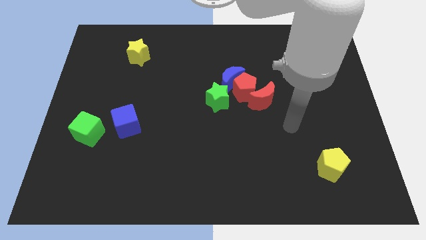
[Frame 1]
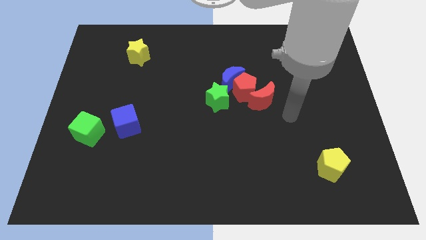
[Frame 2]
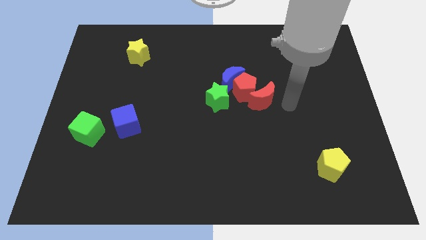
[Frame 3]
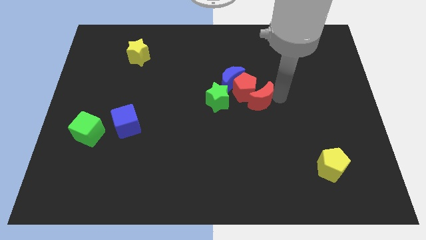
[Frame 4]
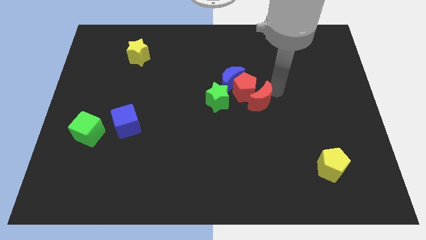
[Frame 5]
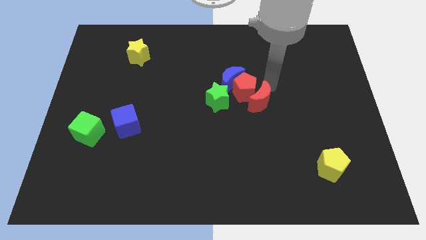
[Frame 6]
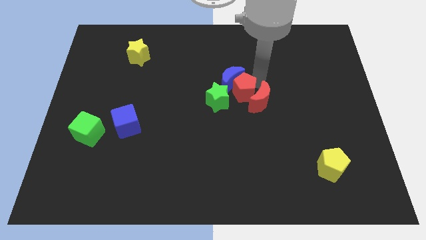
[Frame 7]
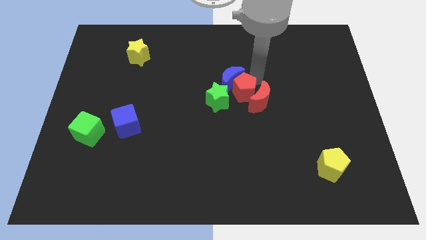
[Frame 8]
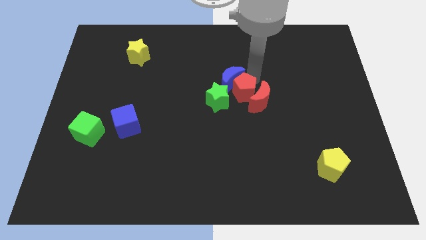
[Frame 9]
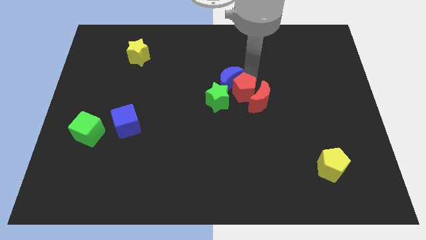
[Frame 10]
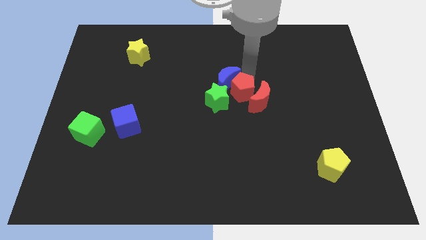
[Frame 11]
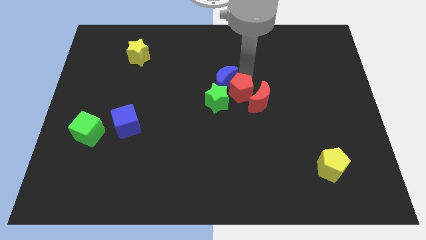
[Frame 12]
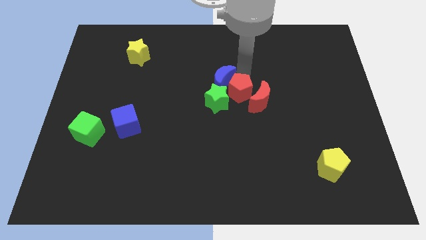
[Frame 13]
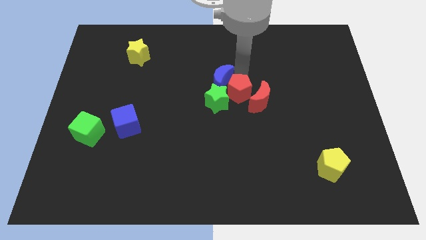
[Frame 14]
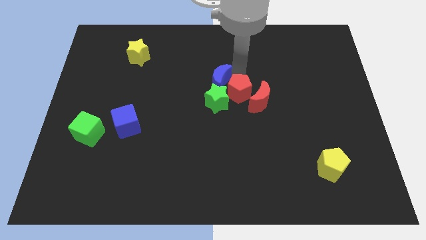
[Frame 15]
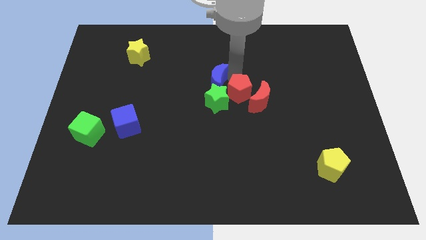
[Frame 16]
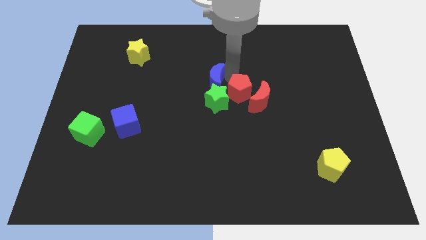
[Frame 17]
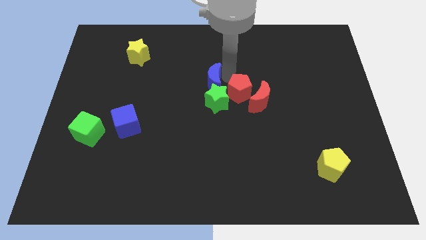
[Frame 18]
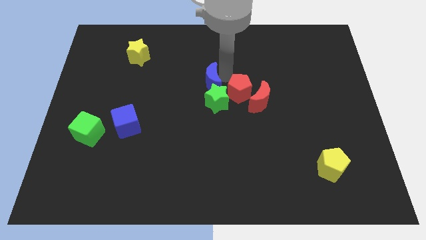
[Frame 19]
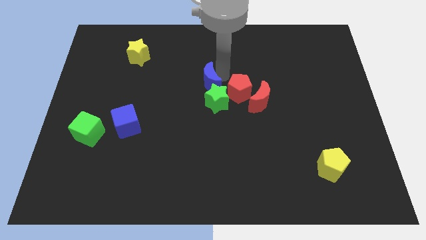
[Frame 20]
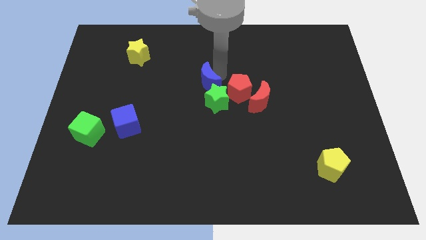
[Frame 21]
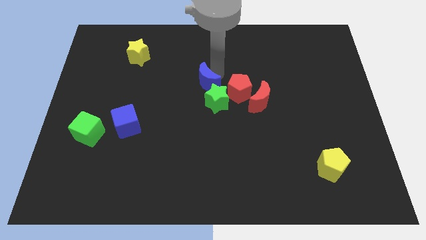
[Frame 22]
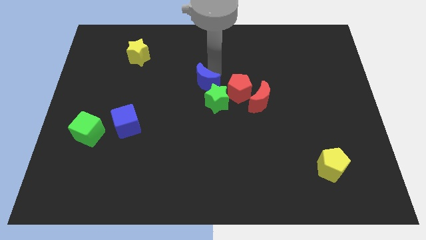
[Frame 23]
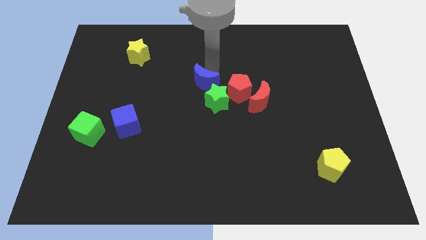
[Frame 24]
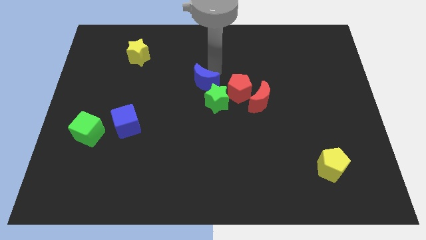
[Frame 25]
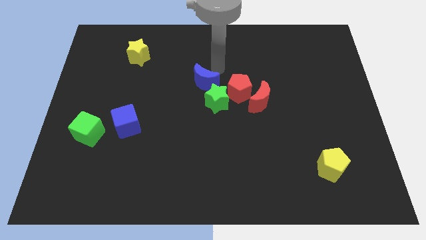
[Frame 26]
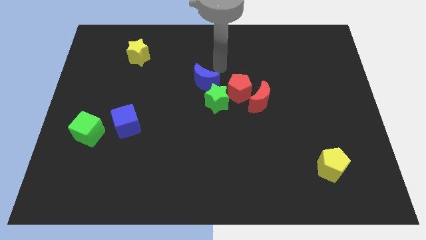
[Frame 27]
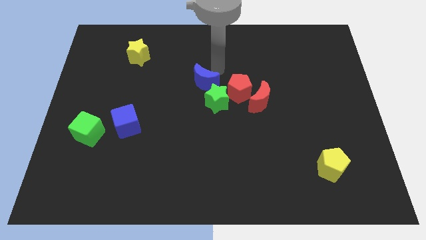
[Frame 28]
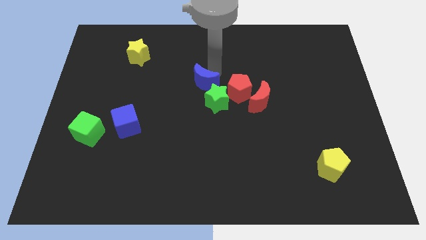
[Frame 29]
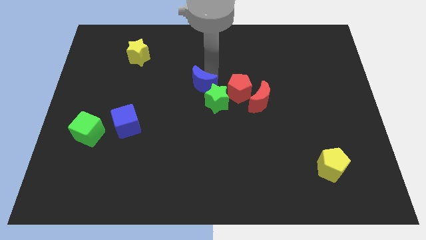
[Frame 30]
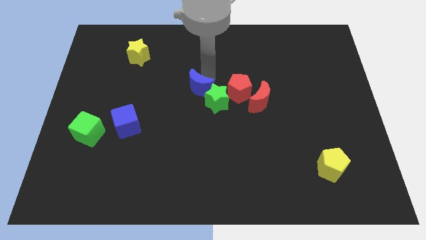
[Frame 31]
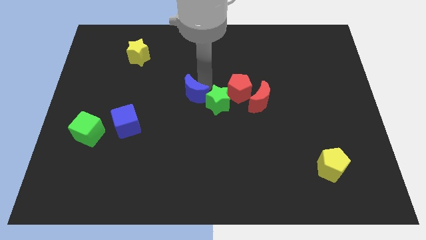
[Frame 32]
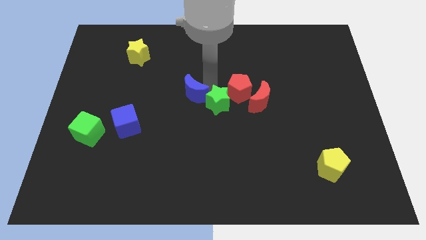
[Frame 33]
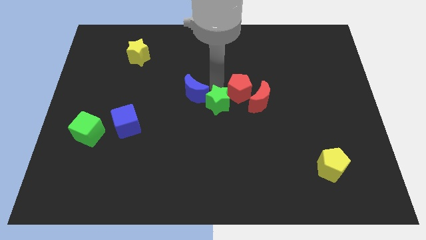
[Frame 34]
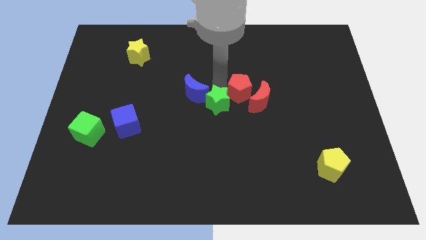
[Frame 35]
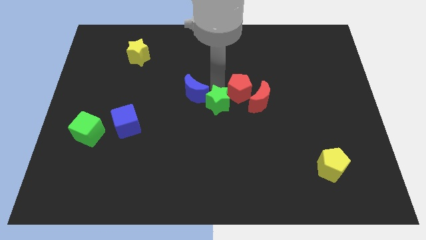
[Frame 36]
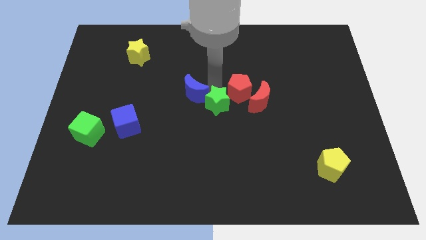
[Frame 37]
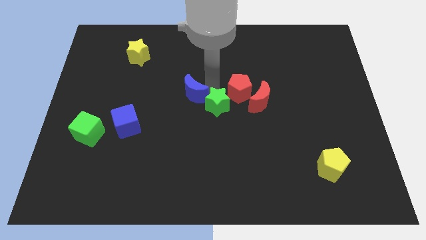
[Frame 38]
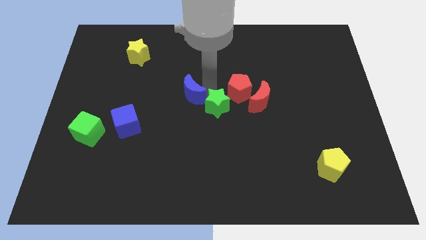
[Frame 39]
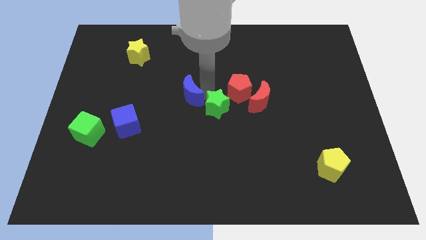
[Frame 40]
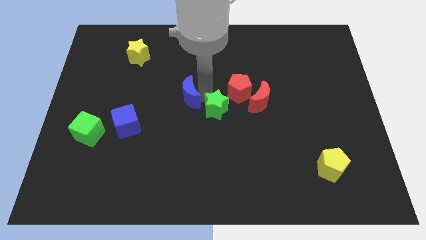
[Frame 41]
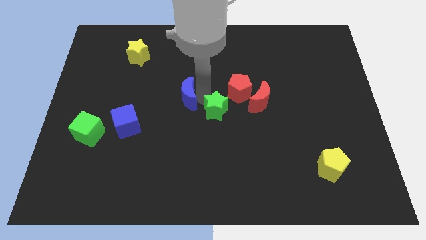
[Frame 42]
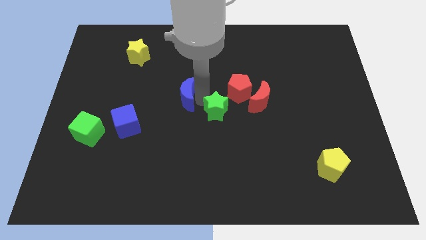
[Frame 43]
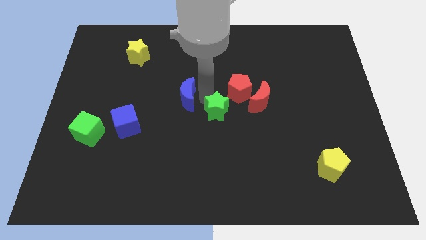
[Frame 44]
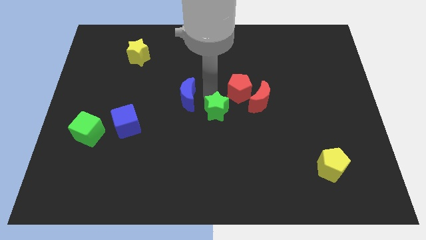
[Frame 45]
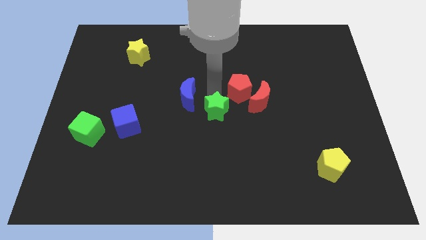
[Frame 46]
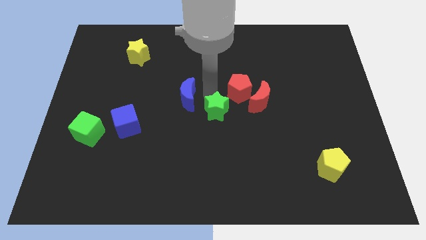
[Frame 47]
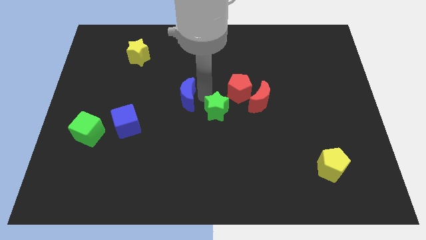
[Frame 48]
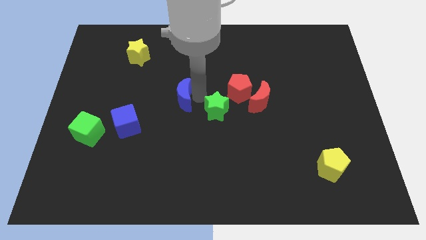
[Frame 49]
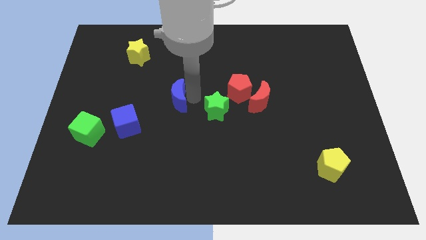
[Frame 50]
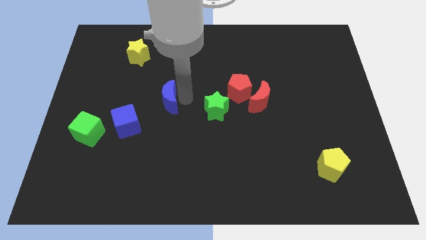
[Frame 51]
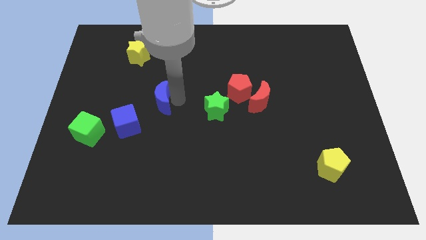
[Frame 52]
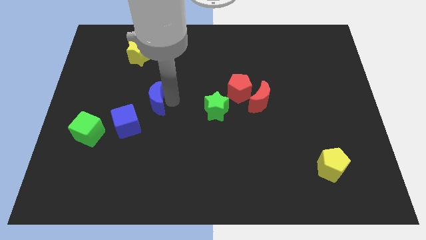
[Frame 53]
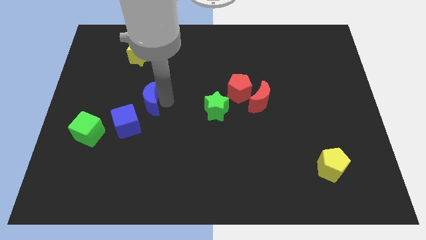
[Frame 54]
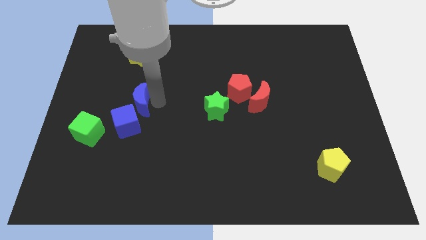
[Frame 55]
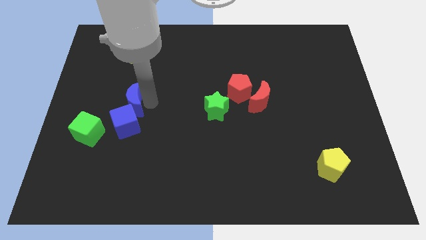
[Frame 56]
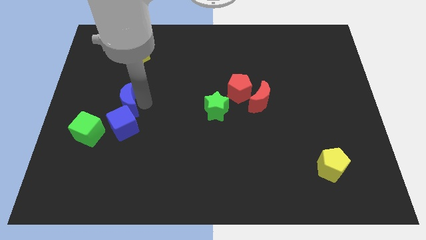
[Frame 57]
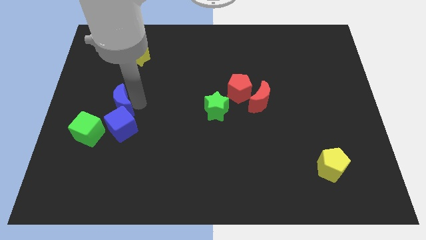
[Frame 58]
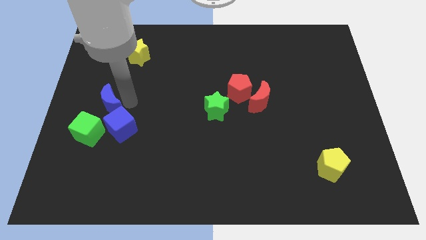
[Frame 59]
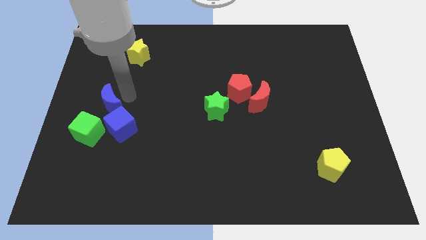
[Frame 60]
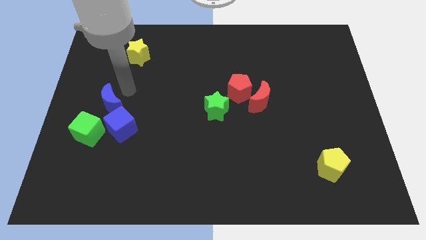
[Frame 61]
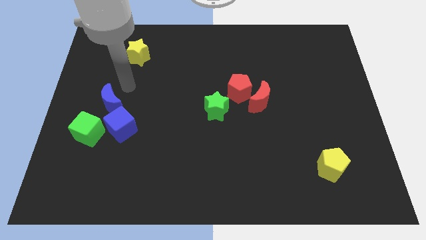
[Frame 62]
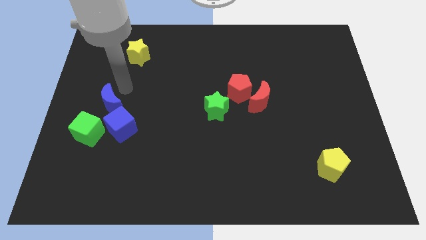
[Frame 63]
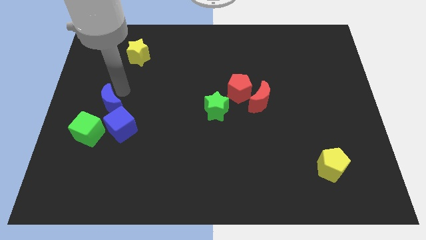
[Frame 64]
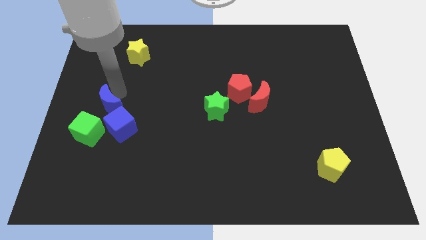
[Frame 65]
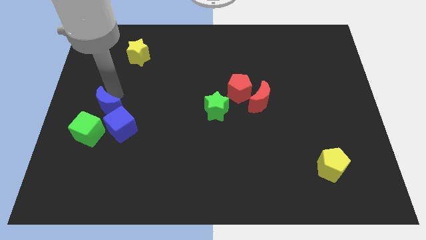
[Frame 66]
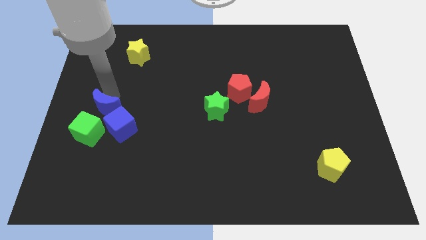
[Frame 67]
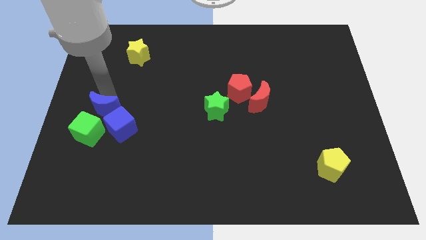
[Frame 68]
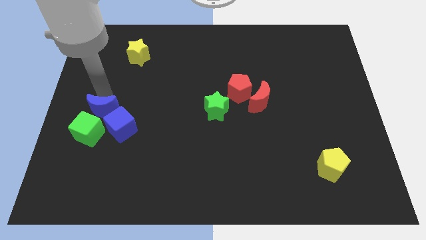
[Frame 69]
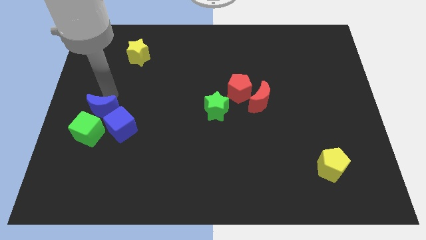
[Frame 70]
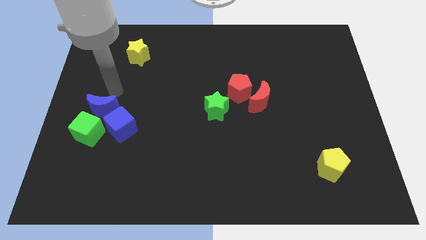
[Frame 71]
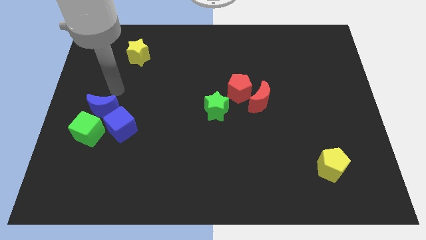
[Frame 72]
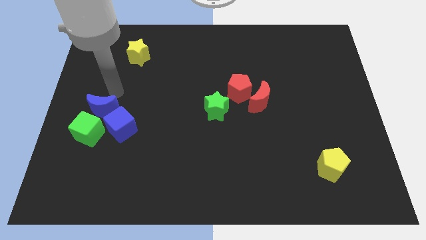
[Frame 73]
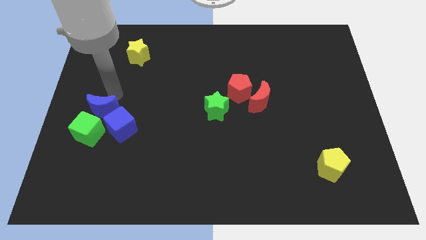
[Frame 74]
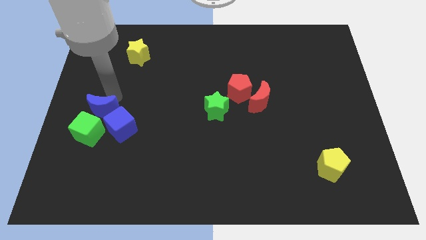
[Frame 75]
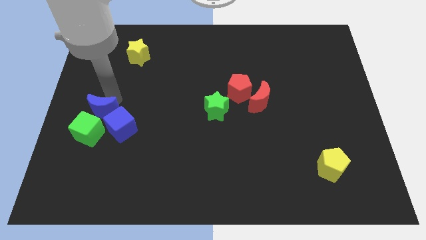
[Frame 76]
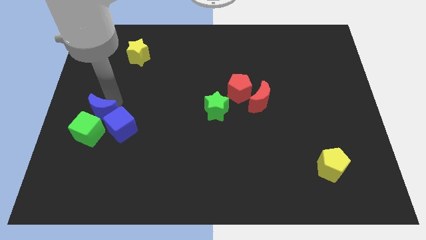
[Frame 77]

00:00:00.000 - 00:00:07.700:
push the blue moon close to the green cube
